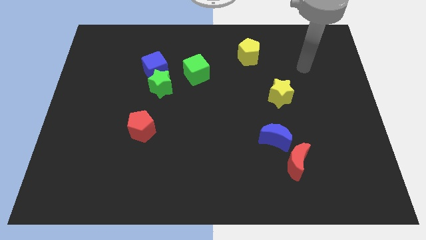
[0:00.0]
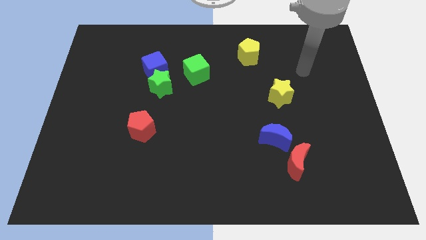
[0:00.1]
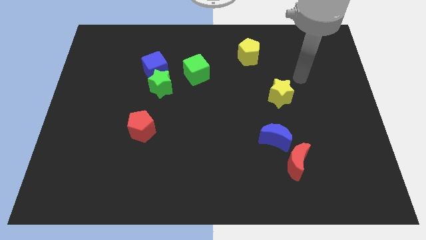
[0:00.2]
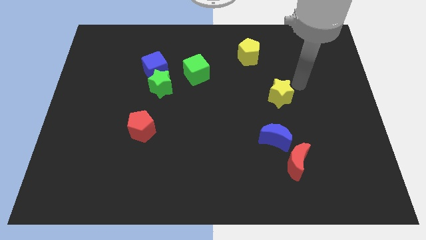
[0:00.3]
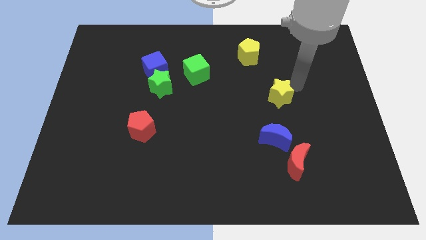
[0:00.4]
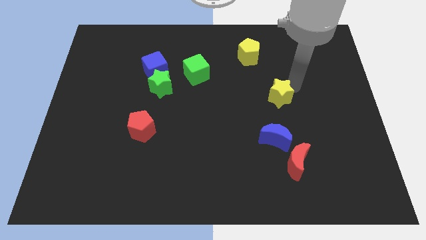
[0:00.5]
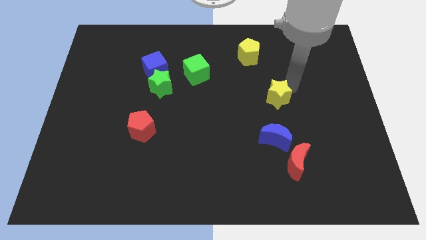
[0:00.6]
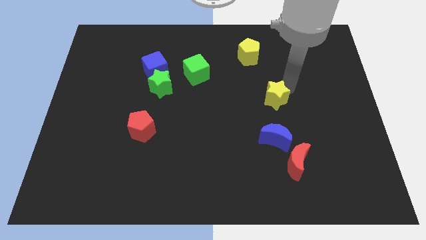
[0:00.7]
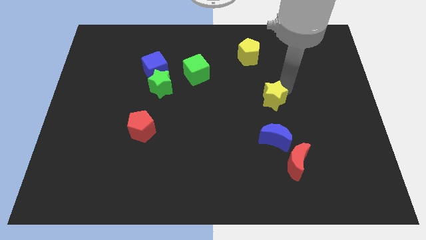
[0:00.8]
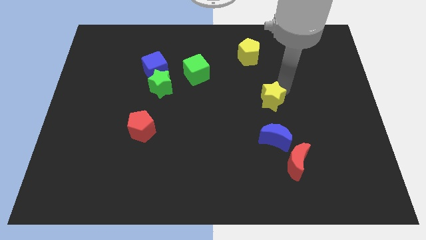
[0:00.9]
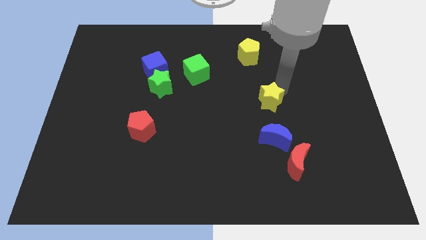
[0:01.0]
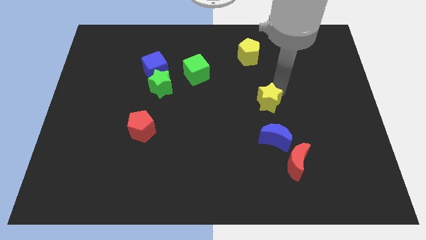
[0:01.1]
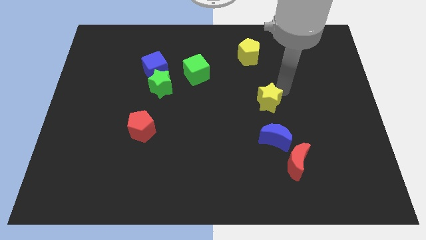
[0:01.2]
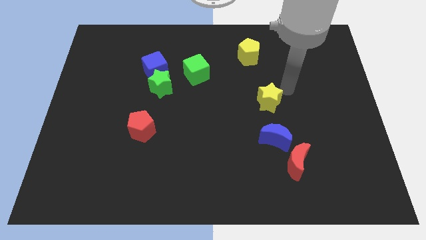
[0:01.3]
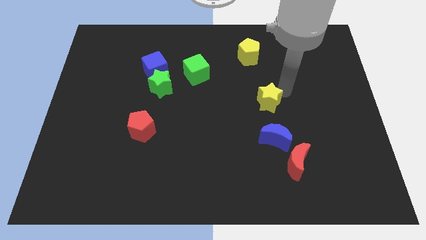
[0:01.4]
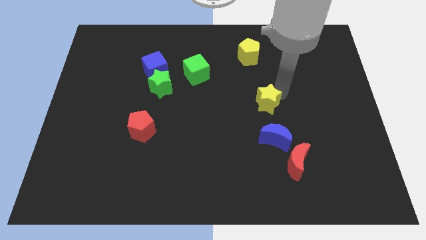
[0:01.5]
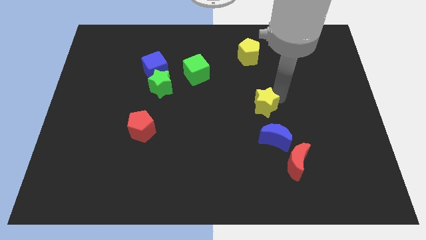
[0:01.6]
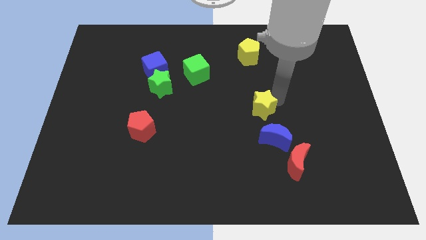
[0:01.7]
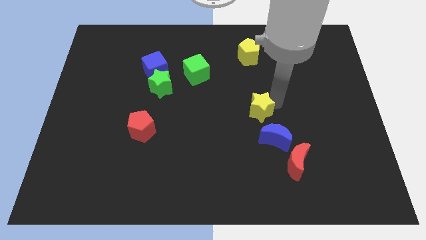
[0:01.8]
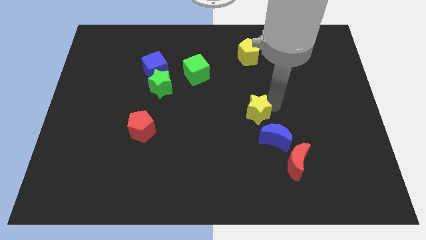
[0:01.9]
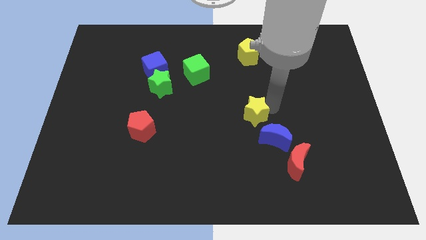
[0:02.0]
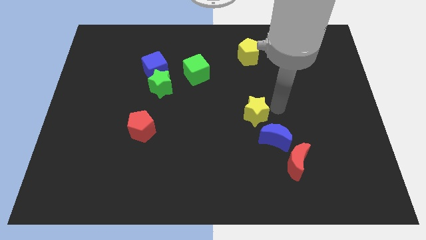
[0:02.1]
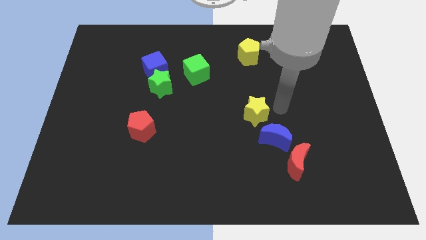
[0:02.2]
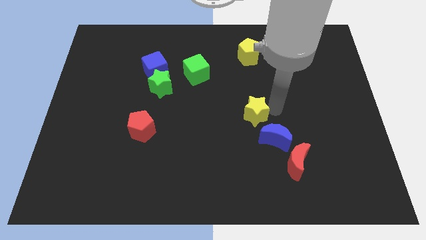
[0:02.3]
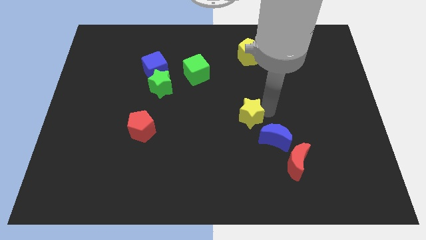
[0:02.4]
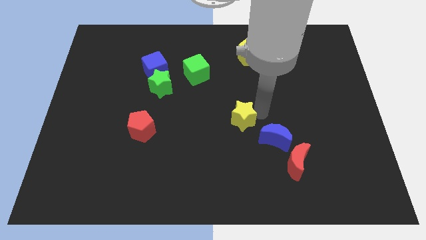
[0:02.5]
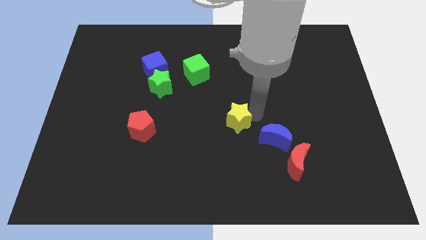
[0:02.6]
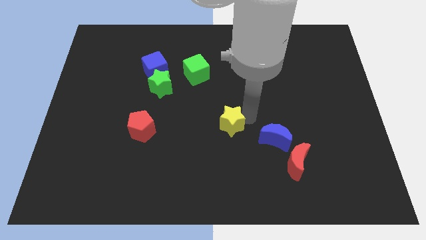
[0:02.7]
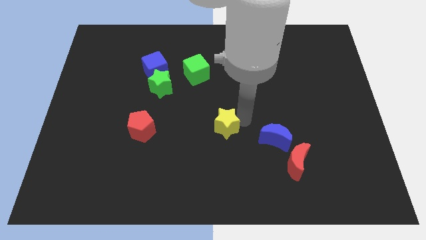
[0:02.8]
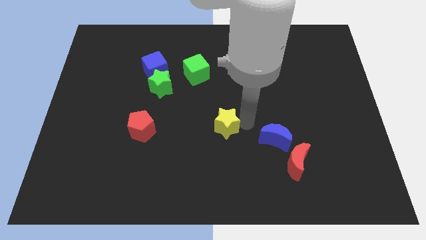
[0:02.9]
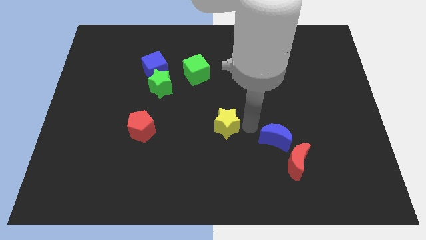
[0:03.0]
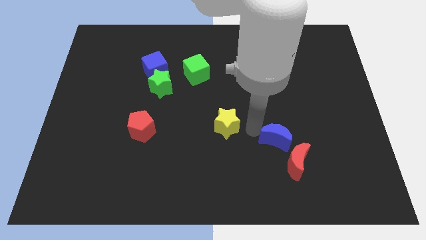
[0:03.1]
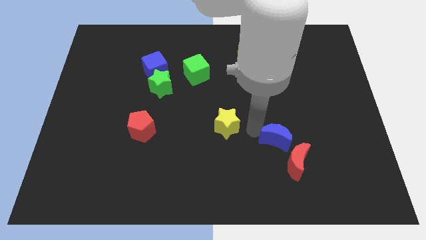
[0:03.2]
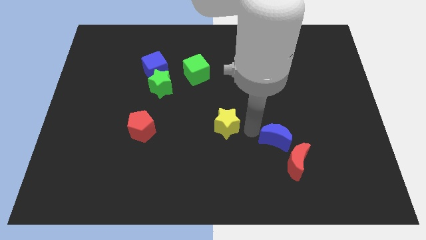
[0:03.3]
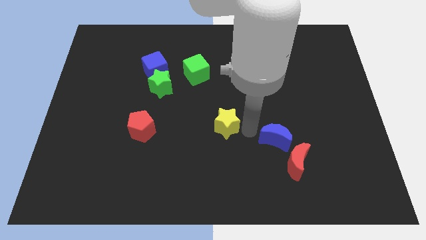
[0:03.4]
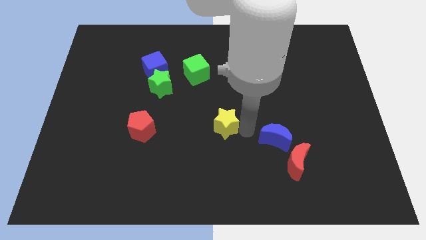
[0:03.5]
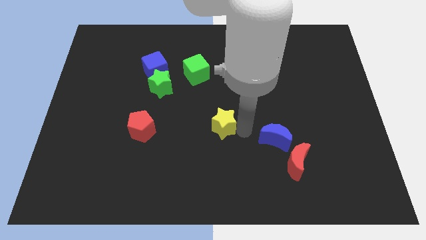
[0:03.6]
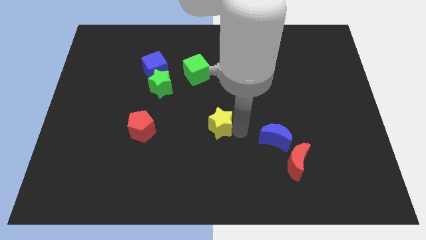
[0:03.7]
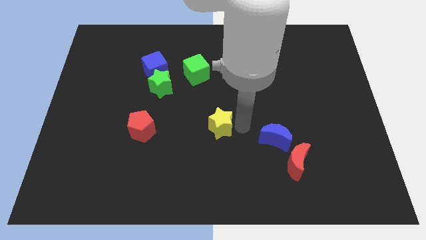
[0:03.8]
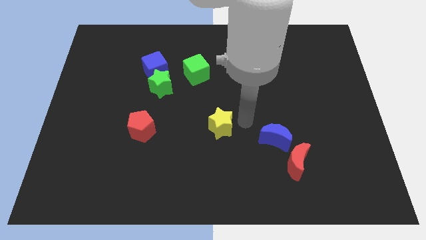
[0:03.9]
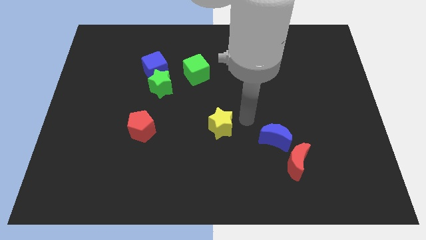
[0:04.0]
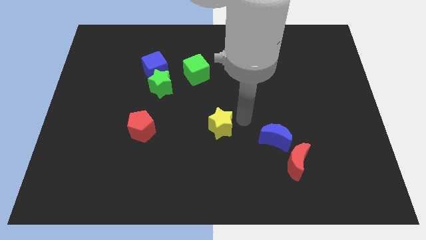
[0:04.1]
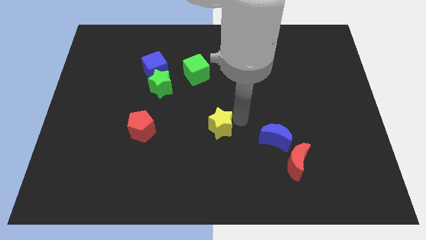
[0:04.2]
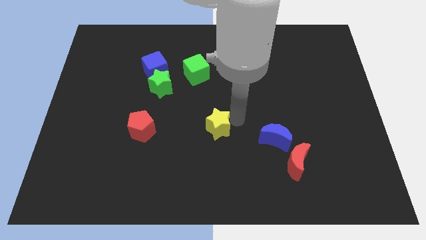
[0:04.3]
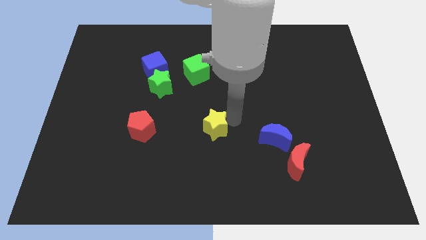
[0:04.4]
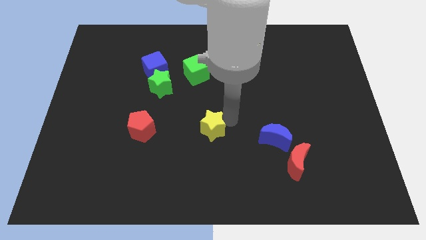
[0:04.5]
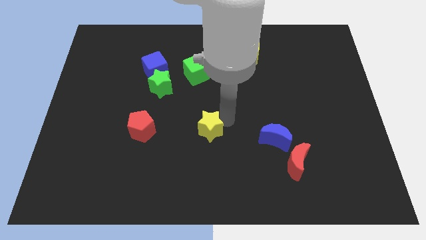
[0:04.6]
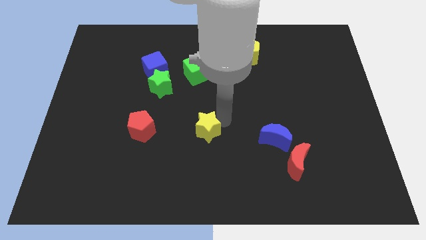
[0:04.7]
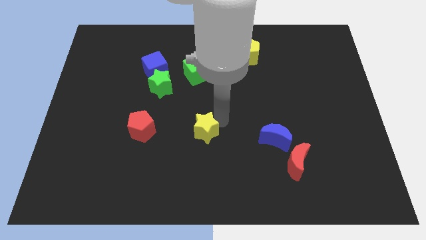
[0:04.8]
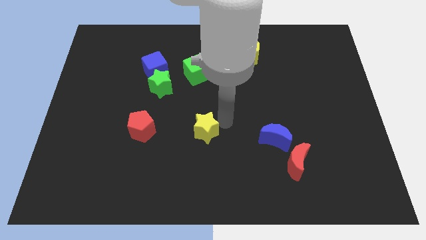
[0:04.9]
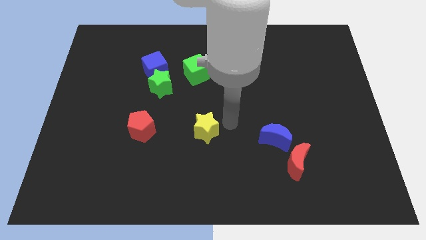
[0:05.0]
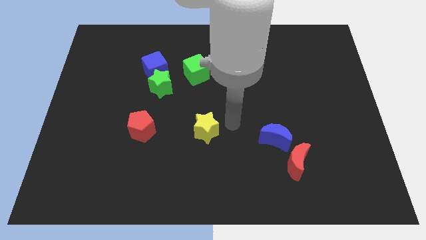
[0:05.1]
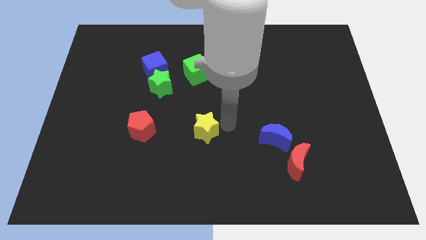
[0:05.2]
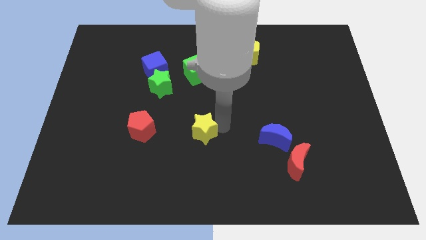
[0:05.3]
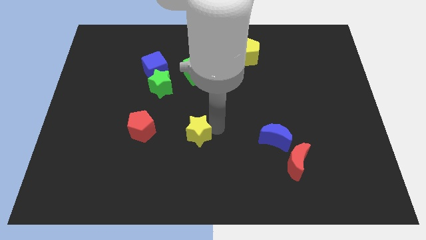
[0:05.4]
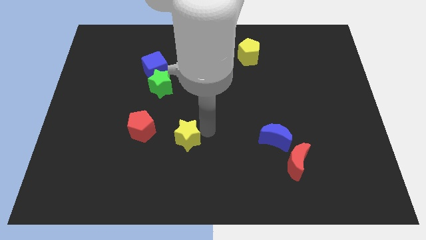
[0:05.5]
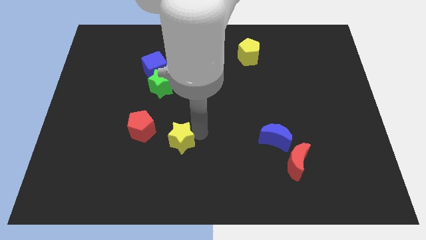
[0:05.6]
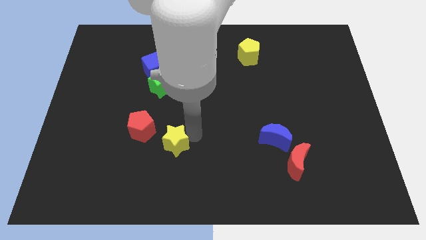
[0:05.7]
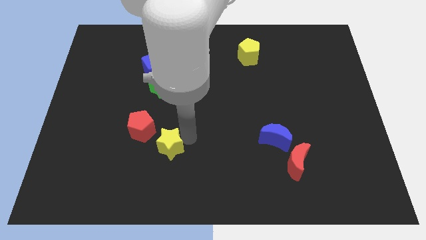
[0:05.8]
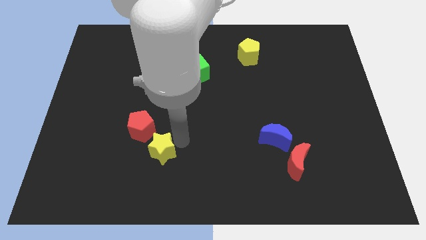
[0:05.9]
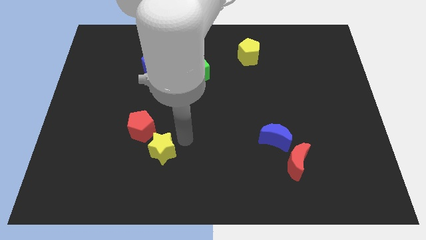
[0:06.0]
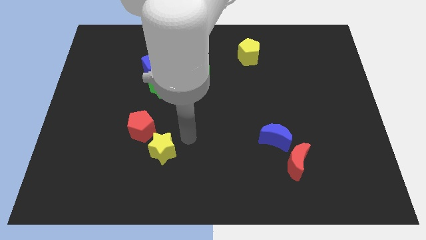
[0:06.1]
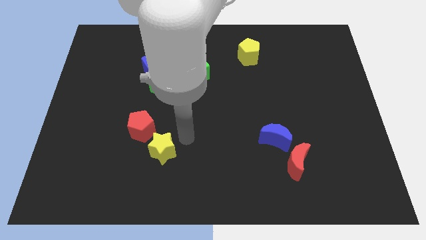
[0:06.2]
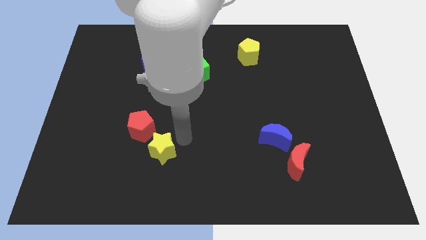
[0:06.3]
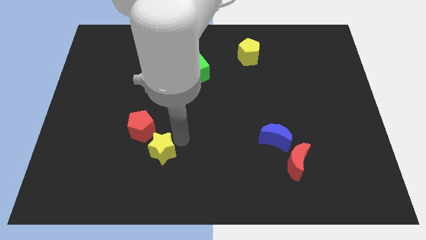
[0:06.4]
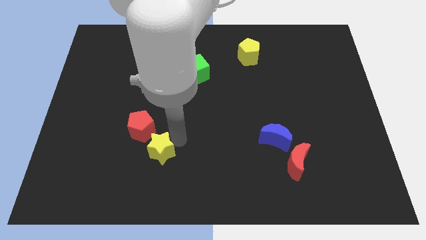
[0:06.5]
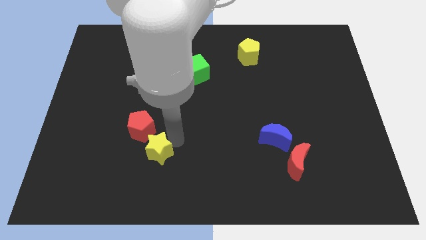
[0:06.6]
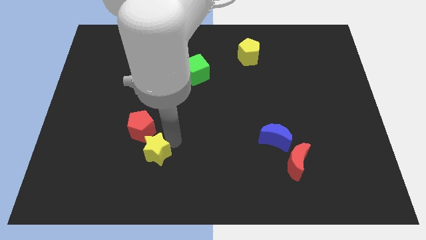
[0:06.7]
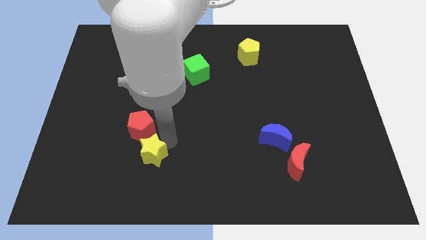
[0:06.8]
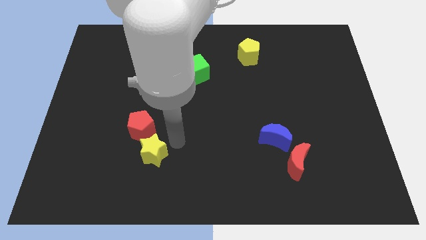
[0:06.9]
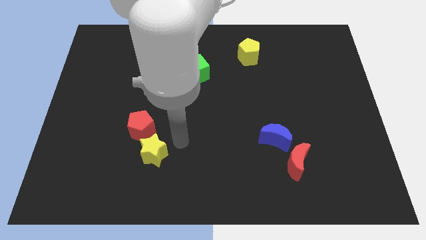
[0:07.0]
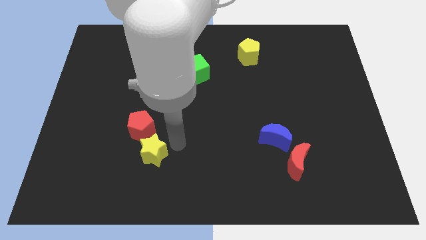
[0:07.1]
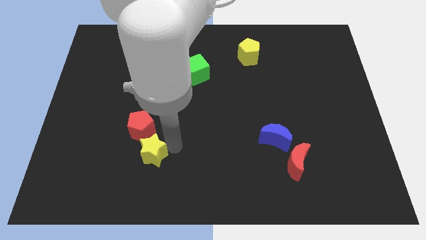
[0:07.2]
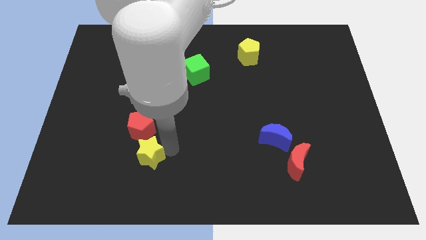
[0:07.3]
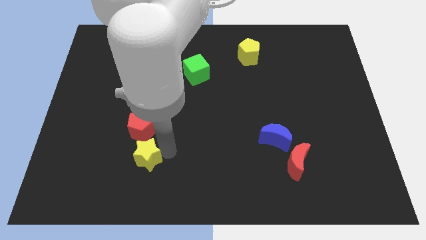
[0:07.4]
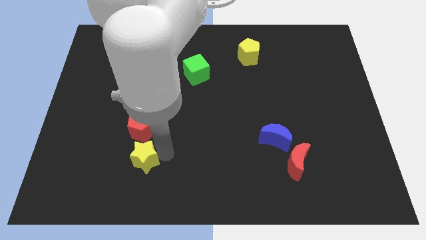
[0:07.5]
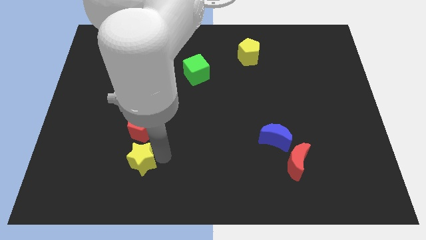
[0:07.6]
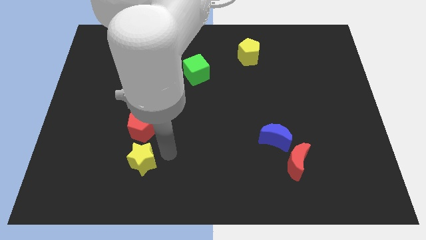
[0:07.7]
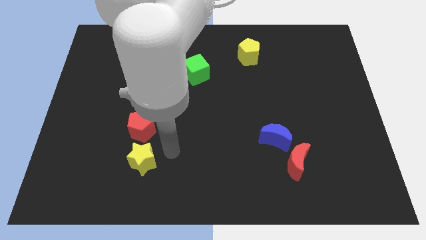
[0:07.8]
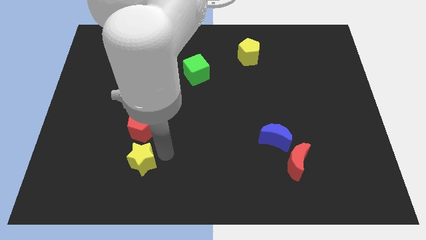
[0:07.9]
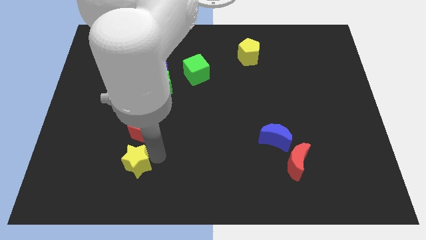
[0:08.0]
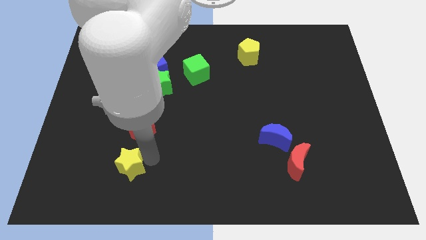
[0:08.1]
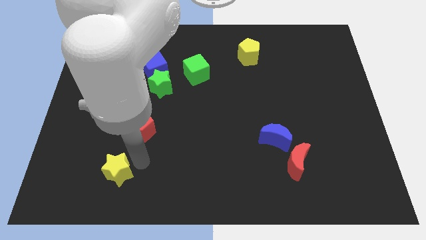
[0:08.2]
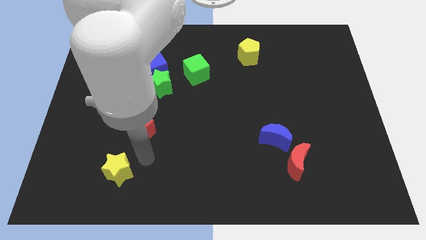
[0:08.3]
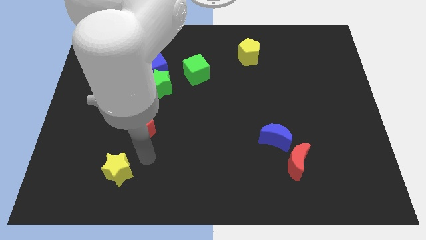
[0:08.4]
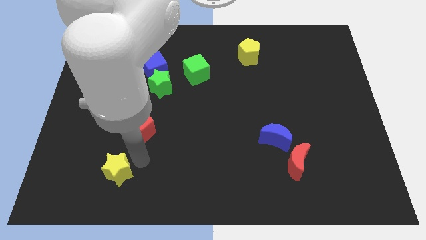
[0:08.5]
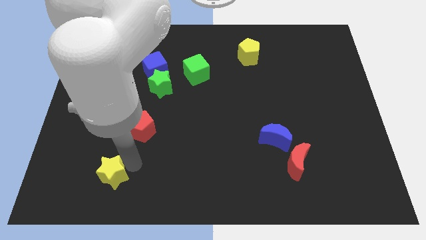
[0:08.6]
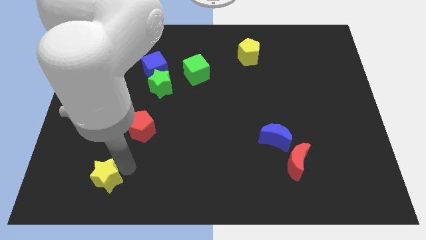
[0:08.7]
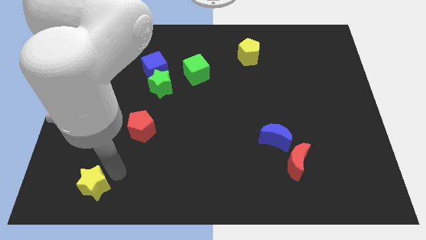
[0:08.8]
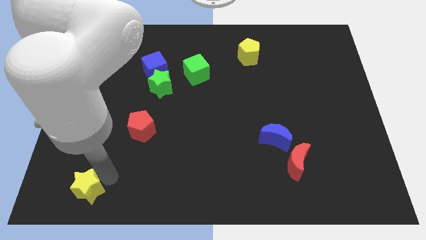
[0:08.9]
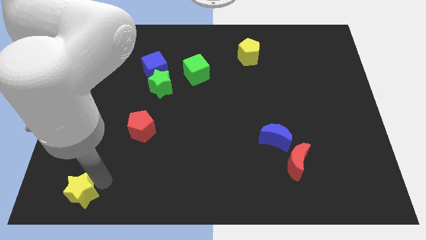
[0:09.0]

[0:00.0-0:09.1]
slide the yellow star to the lower left corner
